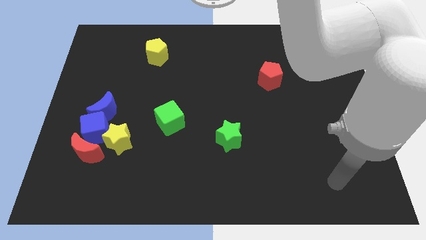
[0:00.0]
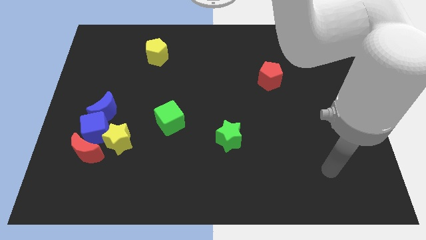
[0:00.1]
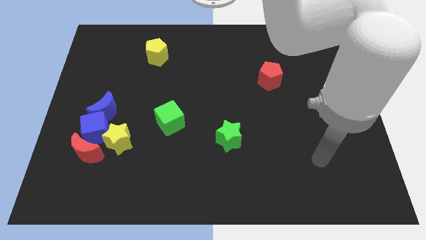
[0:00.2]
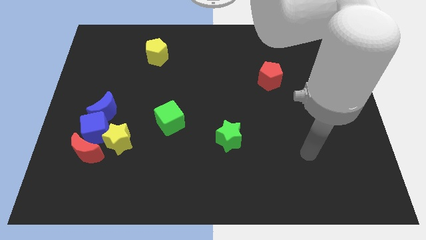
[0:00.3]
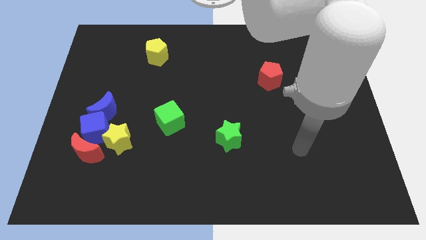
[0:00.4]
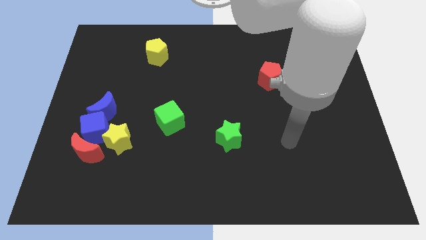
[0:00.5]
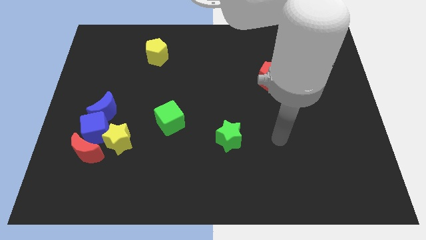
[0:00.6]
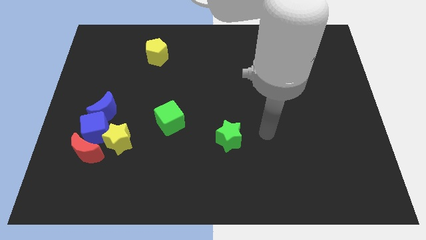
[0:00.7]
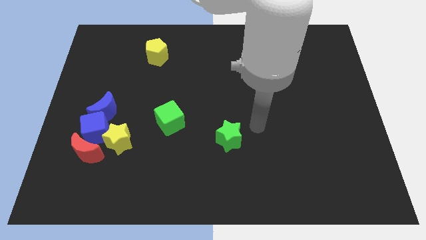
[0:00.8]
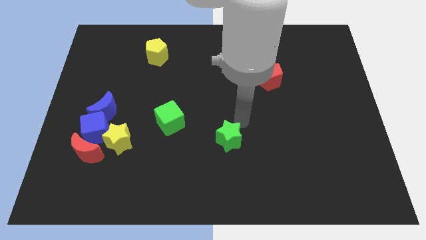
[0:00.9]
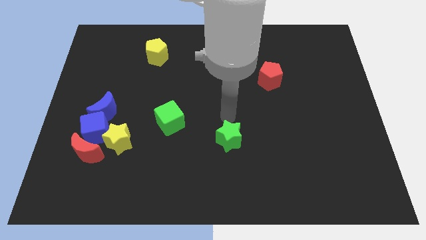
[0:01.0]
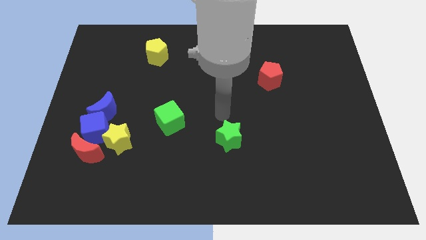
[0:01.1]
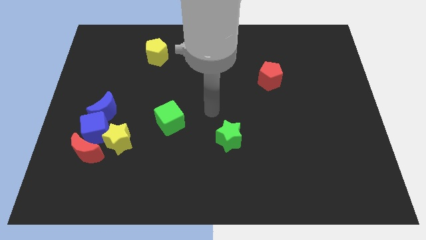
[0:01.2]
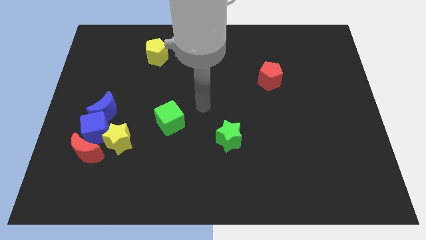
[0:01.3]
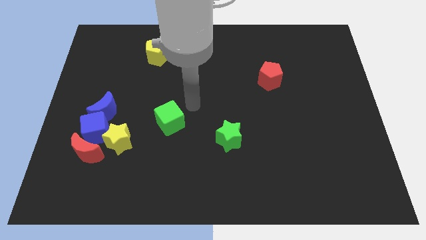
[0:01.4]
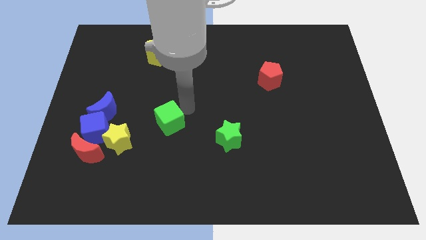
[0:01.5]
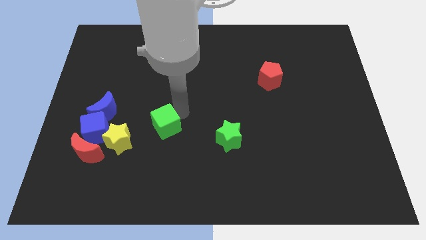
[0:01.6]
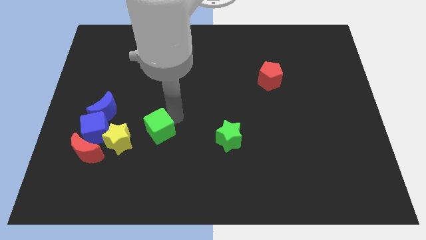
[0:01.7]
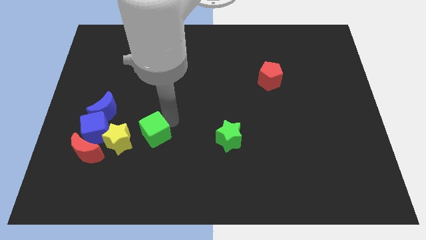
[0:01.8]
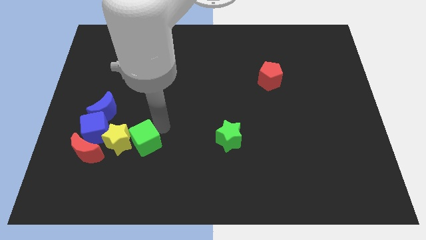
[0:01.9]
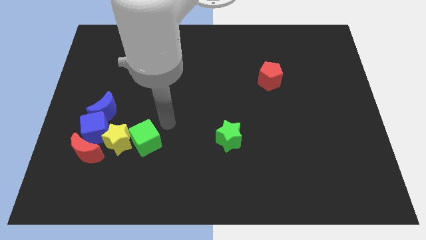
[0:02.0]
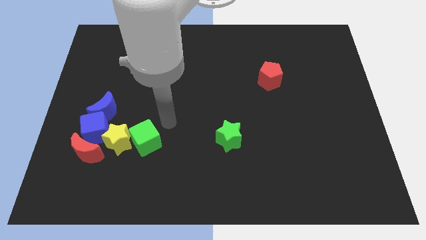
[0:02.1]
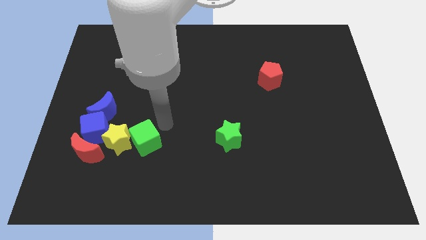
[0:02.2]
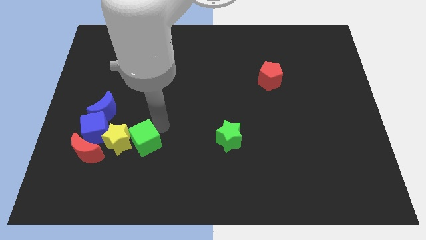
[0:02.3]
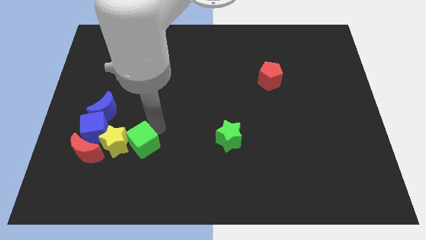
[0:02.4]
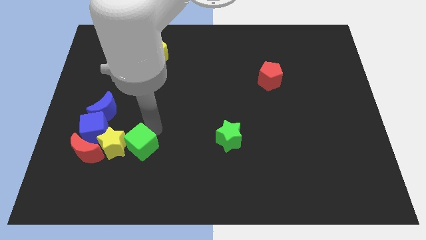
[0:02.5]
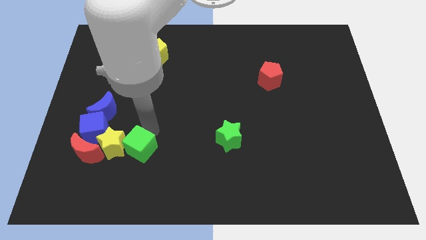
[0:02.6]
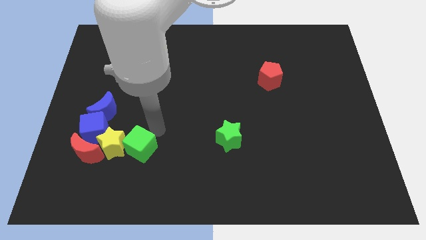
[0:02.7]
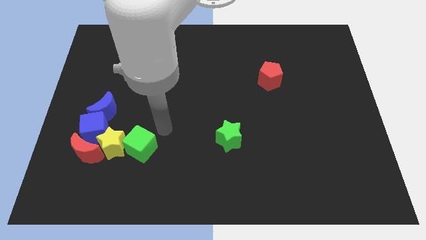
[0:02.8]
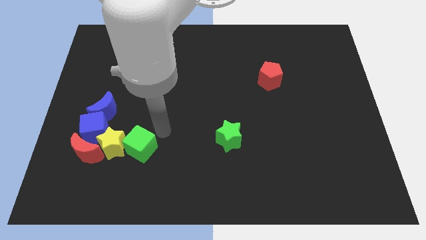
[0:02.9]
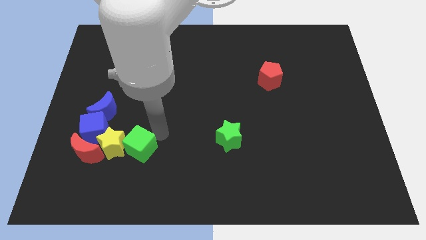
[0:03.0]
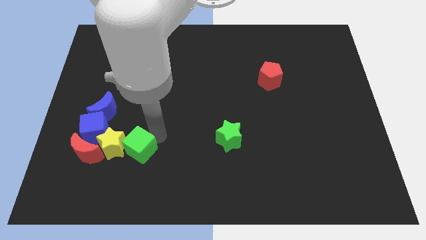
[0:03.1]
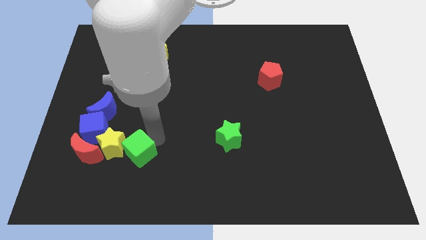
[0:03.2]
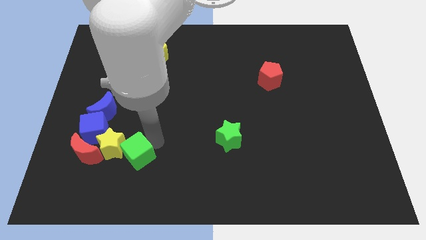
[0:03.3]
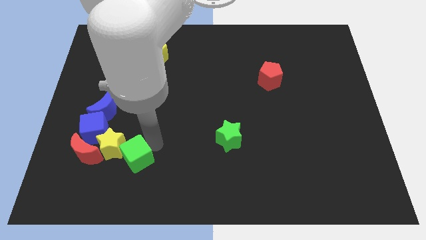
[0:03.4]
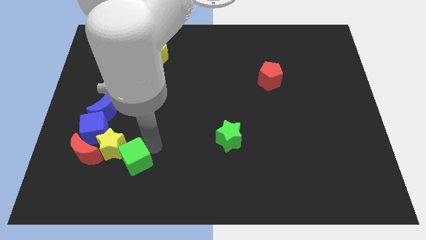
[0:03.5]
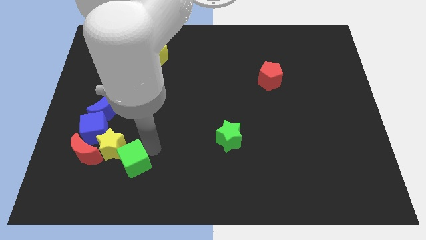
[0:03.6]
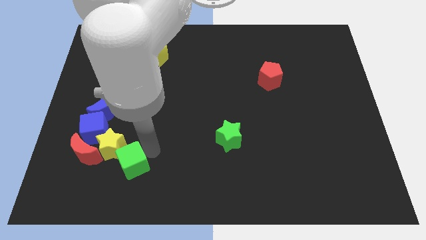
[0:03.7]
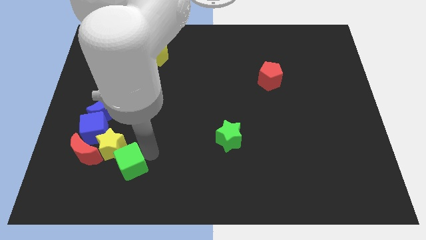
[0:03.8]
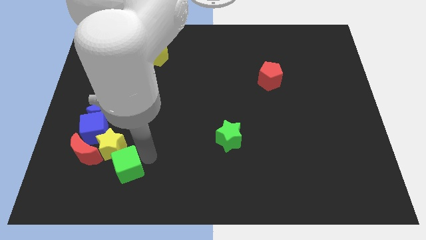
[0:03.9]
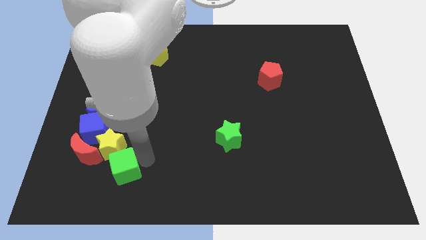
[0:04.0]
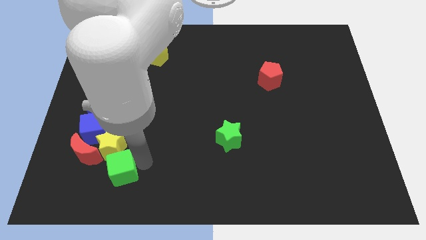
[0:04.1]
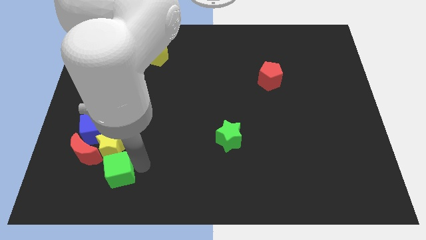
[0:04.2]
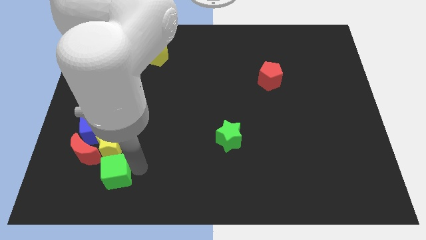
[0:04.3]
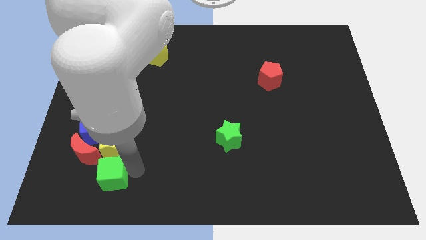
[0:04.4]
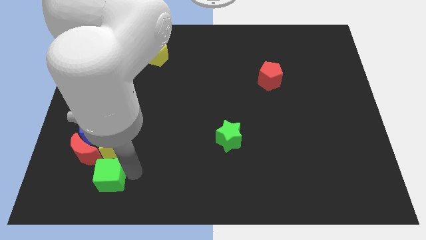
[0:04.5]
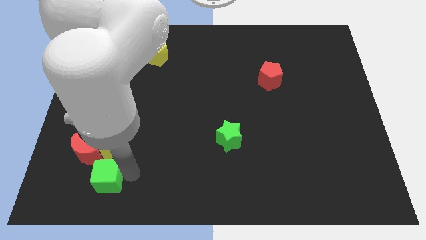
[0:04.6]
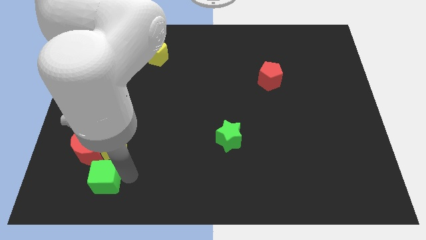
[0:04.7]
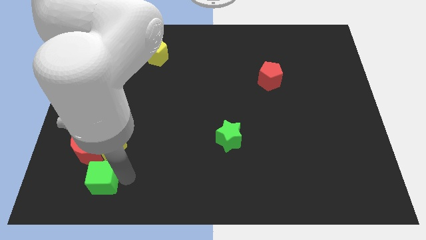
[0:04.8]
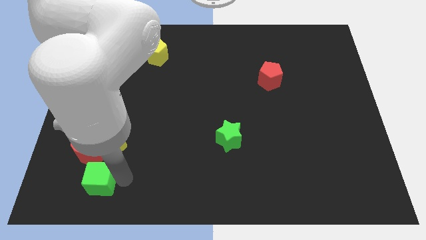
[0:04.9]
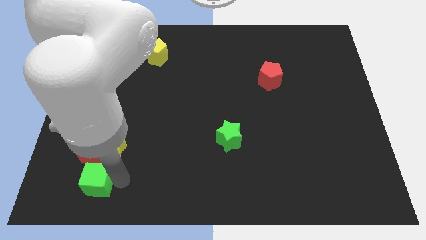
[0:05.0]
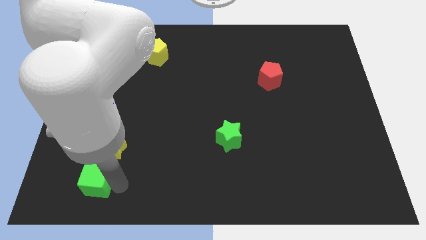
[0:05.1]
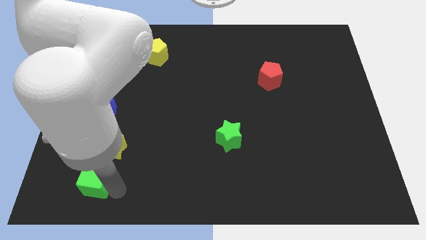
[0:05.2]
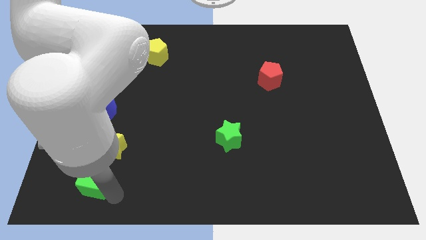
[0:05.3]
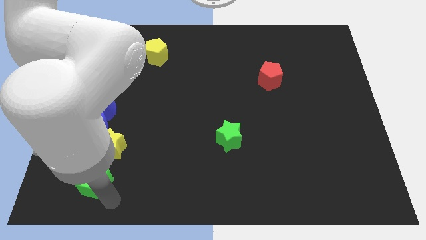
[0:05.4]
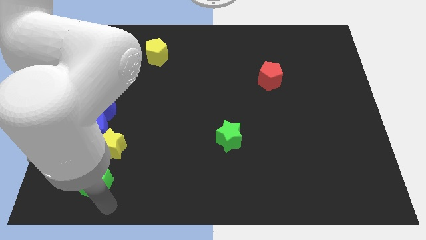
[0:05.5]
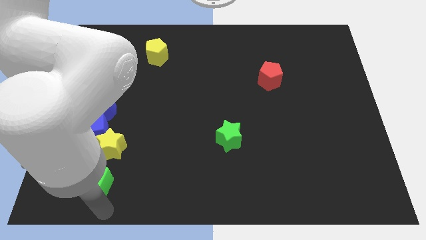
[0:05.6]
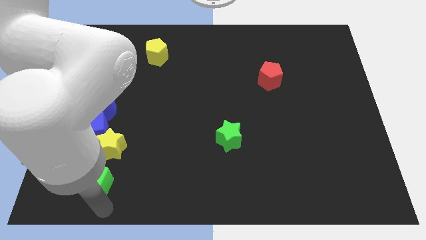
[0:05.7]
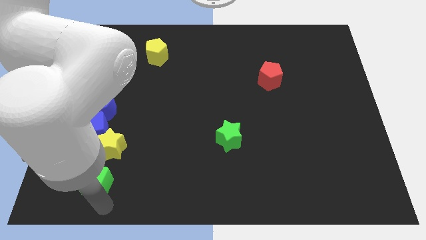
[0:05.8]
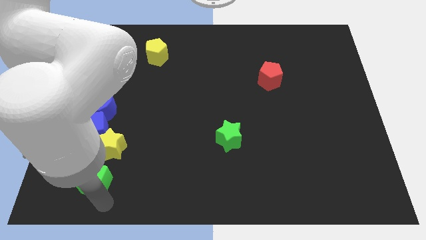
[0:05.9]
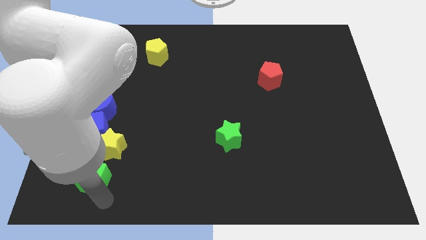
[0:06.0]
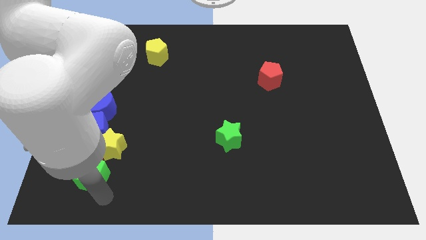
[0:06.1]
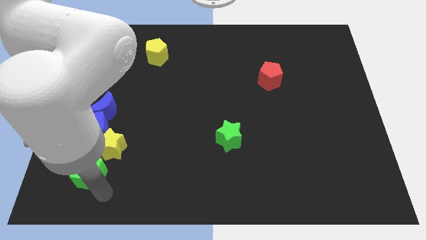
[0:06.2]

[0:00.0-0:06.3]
push the green cube to the bottom of the blue moon

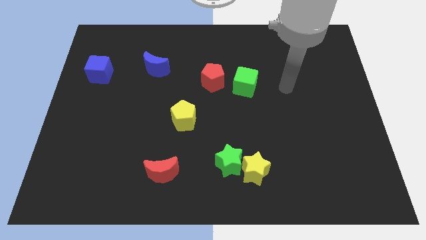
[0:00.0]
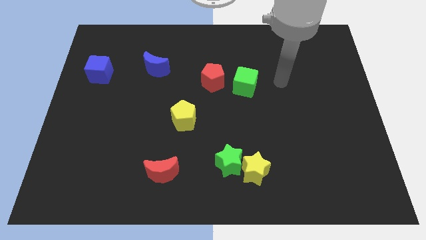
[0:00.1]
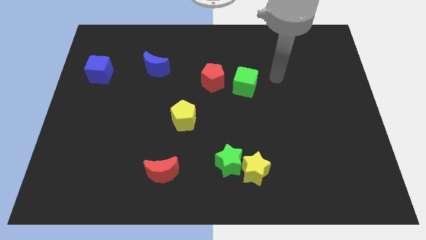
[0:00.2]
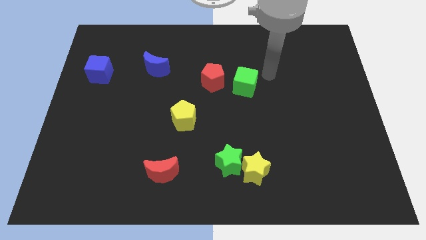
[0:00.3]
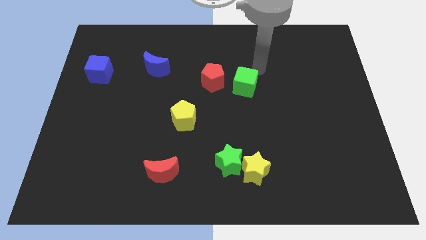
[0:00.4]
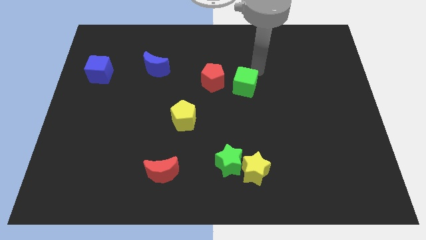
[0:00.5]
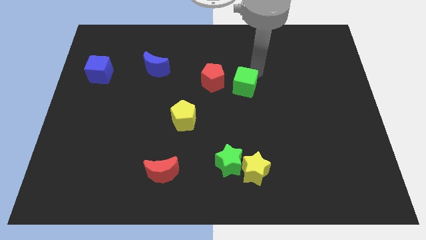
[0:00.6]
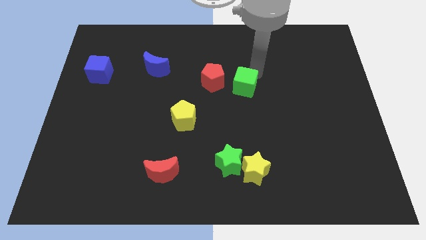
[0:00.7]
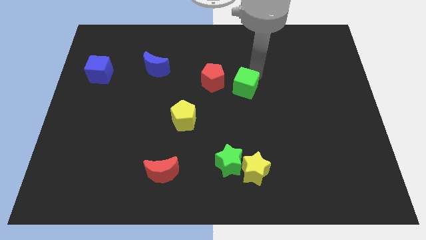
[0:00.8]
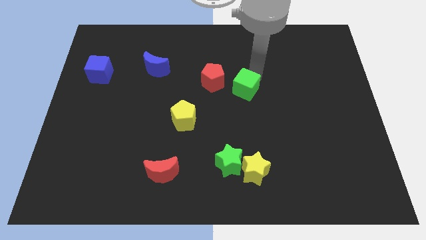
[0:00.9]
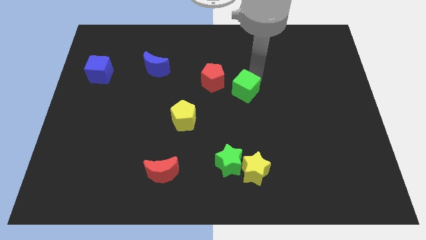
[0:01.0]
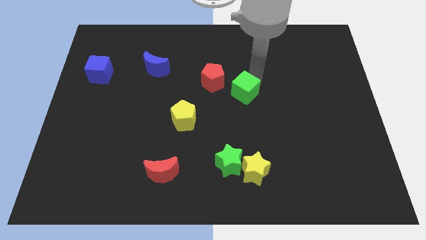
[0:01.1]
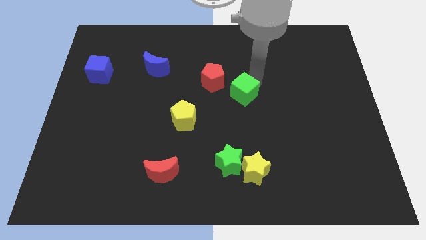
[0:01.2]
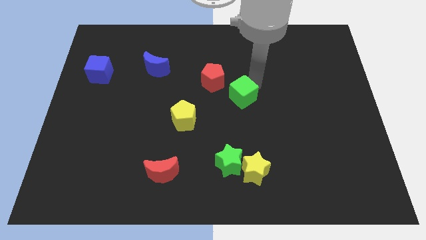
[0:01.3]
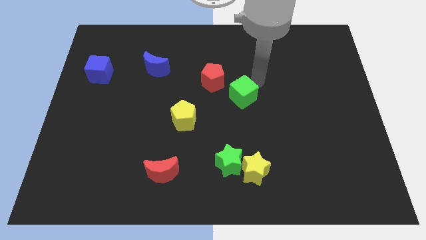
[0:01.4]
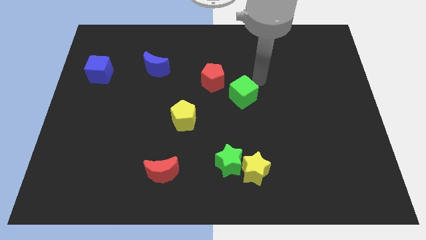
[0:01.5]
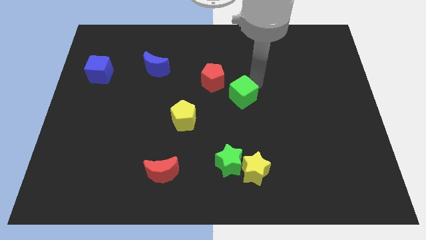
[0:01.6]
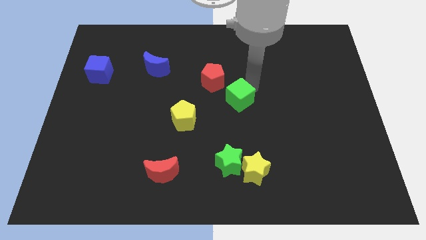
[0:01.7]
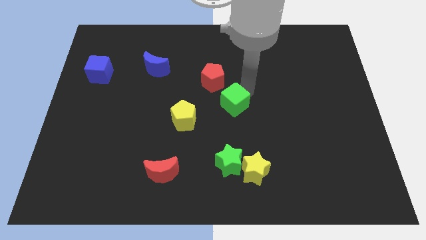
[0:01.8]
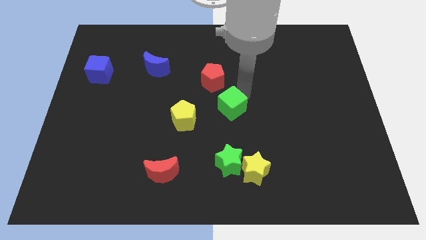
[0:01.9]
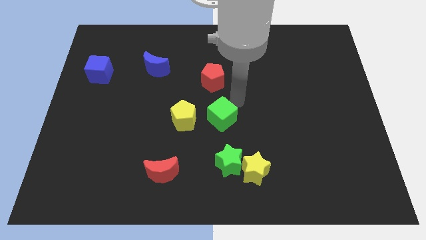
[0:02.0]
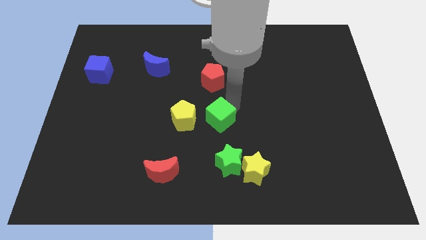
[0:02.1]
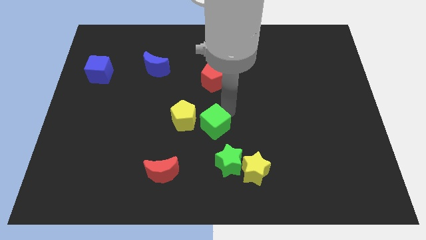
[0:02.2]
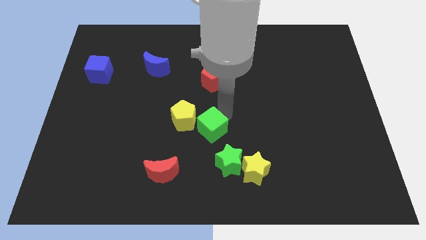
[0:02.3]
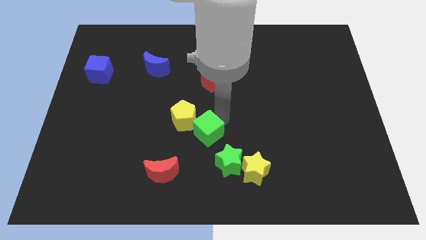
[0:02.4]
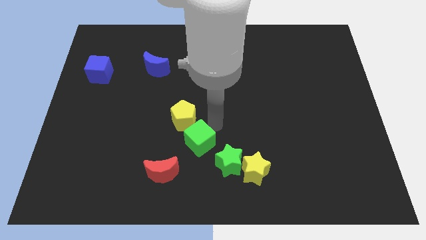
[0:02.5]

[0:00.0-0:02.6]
put the green cube to the bottom side of the yellow pentagon
